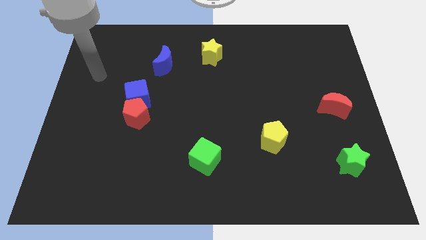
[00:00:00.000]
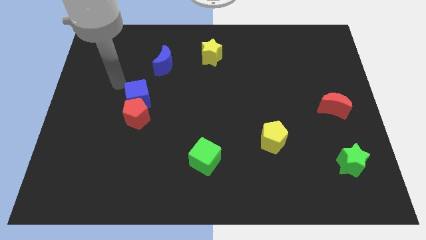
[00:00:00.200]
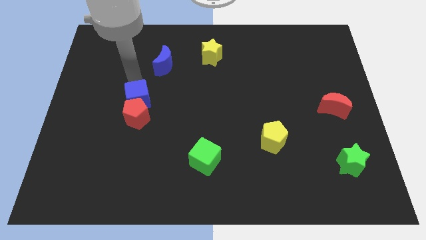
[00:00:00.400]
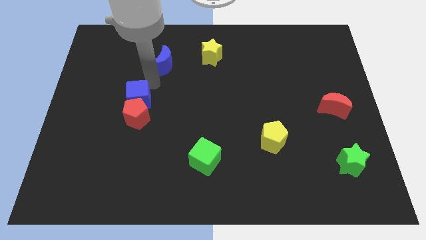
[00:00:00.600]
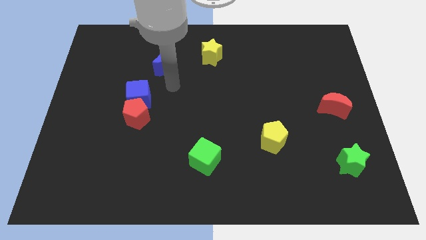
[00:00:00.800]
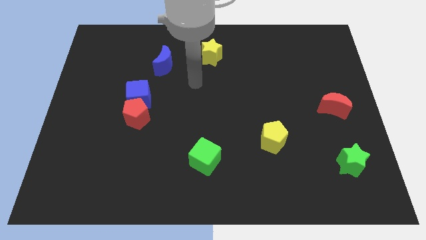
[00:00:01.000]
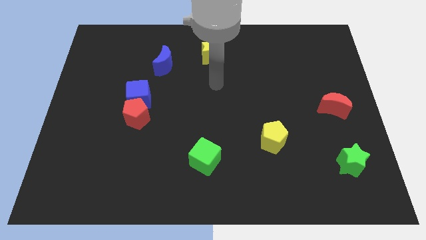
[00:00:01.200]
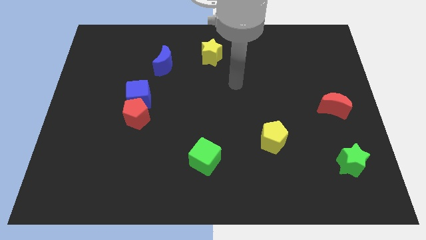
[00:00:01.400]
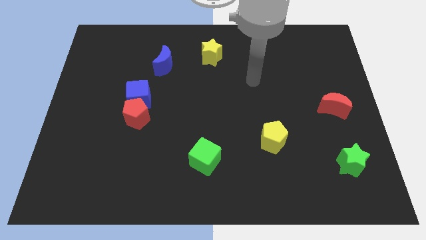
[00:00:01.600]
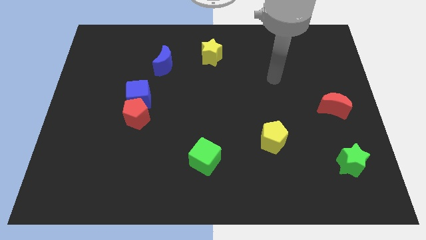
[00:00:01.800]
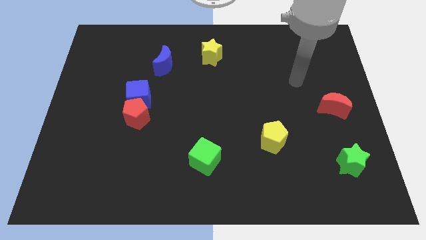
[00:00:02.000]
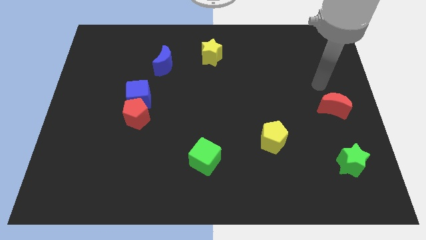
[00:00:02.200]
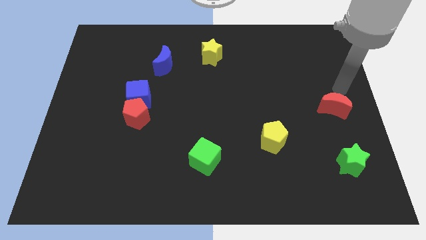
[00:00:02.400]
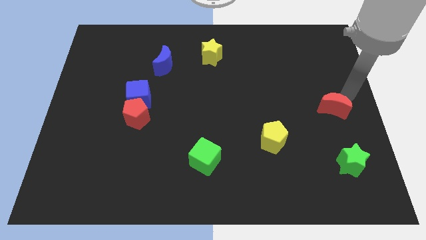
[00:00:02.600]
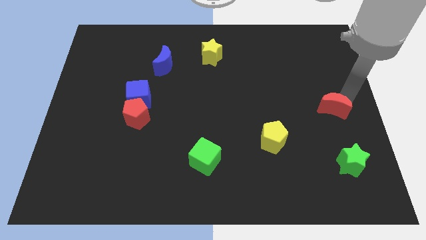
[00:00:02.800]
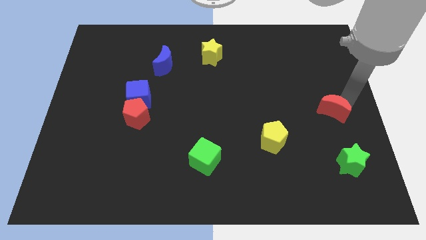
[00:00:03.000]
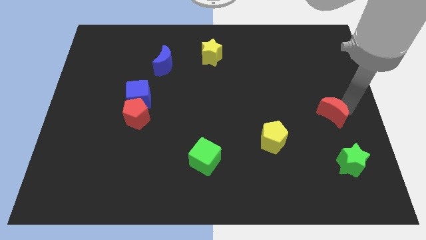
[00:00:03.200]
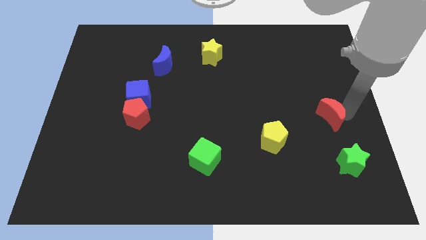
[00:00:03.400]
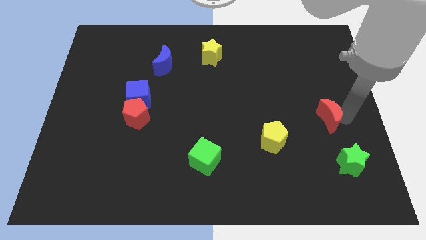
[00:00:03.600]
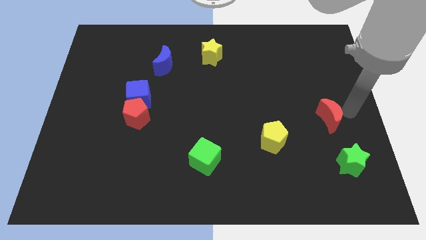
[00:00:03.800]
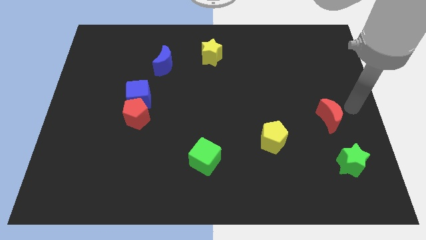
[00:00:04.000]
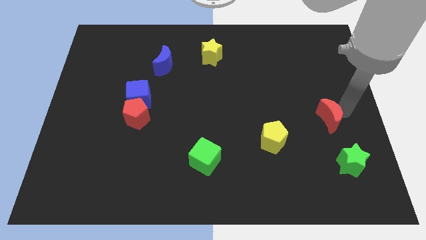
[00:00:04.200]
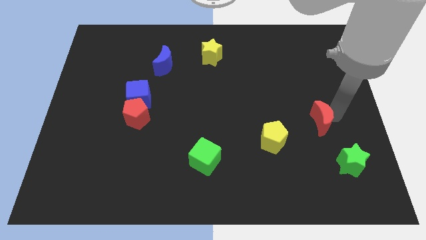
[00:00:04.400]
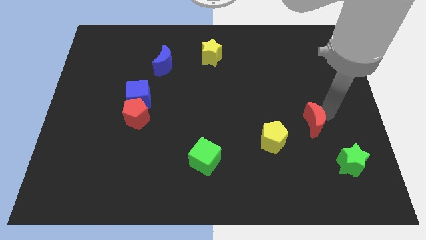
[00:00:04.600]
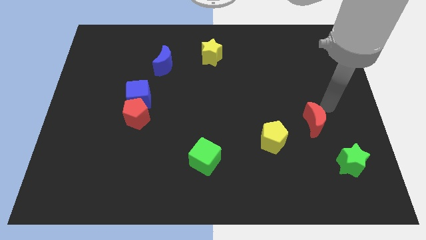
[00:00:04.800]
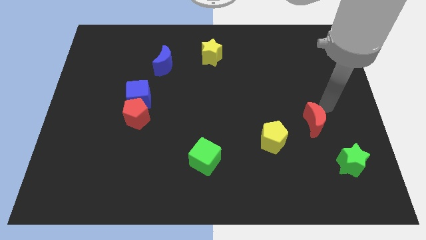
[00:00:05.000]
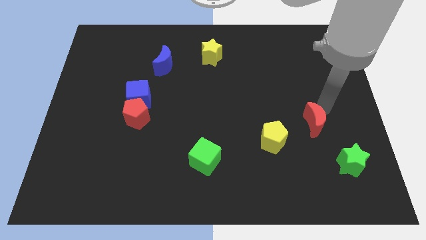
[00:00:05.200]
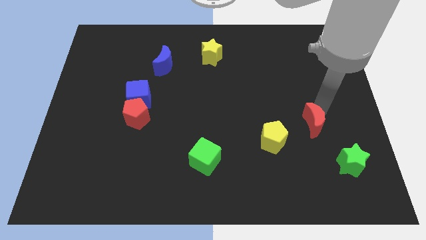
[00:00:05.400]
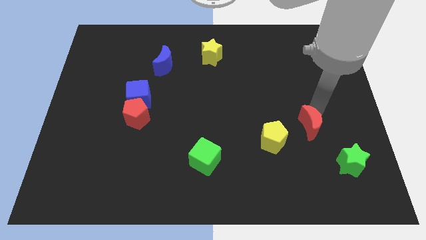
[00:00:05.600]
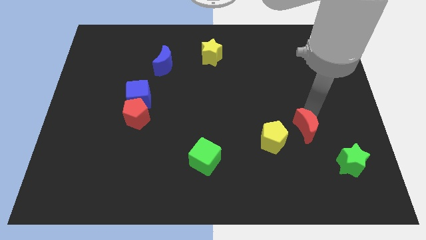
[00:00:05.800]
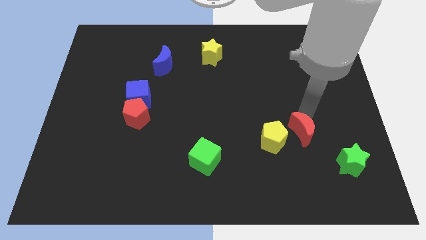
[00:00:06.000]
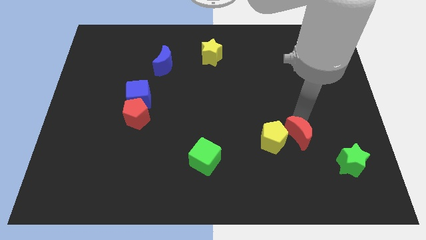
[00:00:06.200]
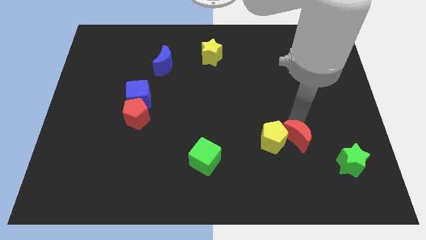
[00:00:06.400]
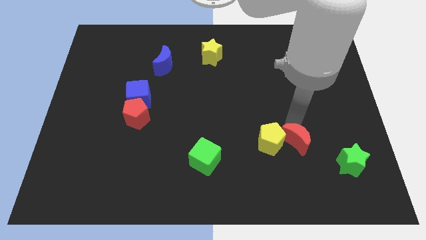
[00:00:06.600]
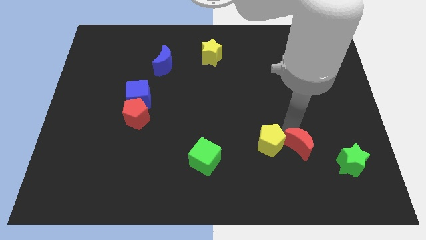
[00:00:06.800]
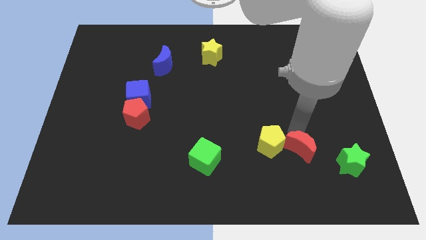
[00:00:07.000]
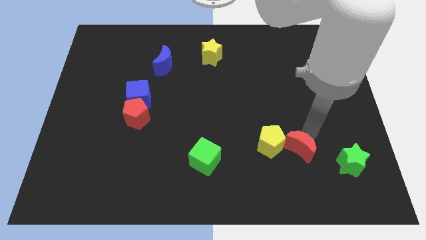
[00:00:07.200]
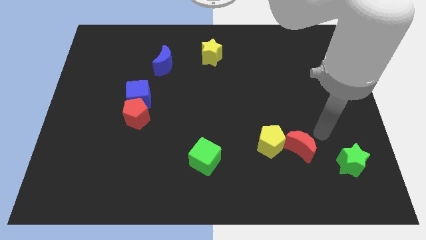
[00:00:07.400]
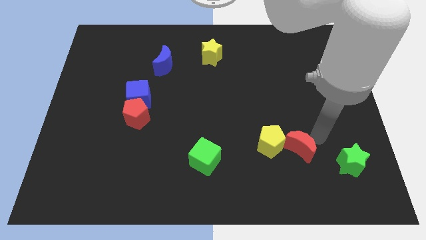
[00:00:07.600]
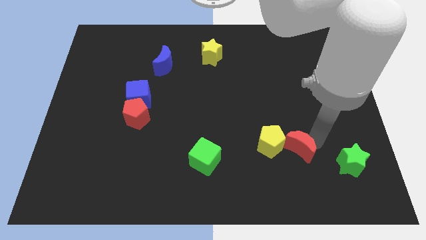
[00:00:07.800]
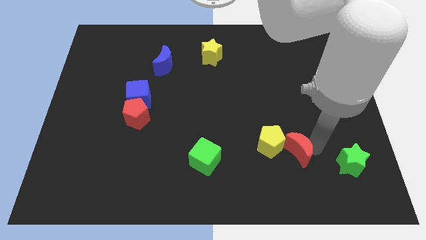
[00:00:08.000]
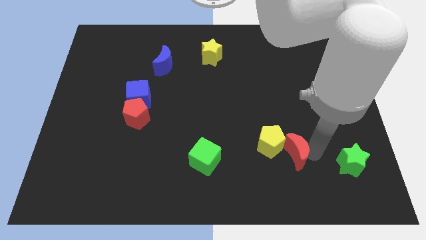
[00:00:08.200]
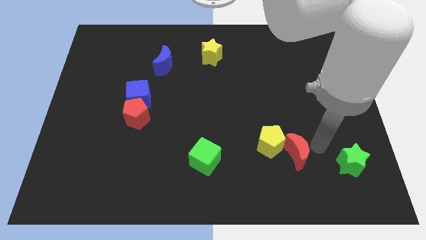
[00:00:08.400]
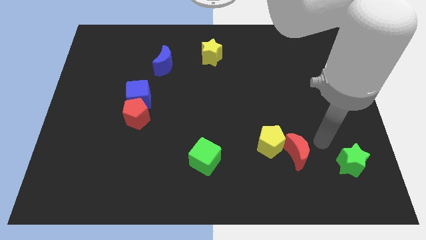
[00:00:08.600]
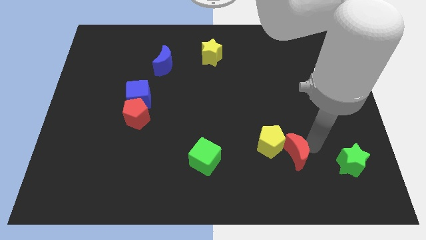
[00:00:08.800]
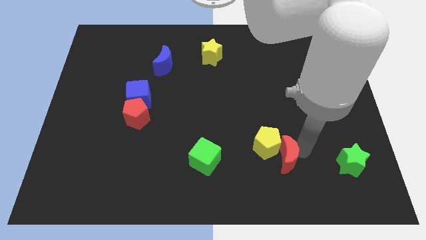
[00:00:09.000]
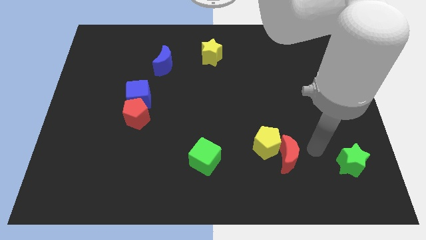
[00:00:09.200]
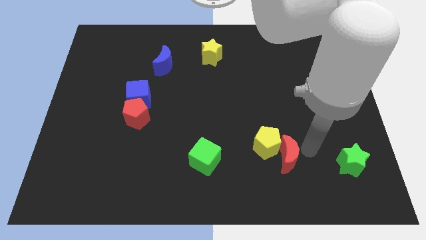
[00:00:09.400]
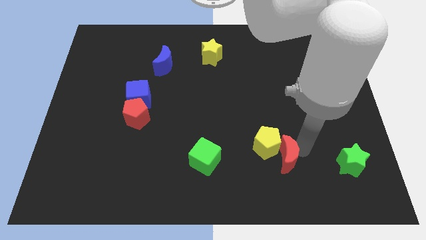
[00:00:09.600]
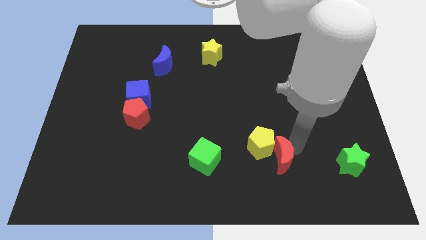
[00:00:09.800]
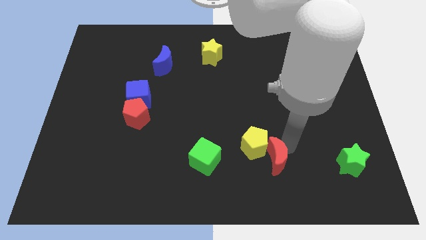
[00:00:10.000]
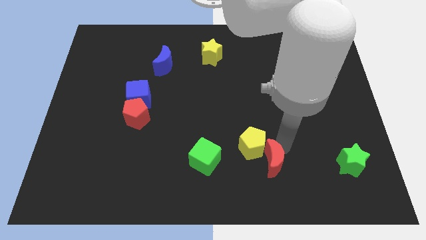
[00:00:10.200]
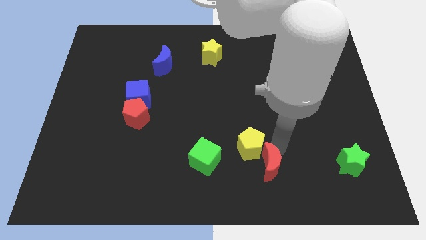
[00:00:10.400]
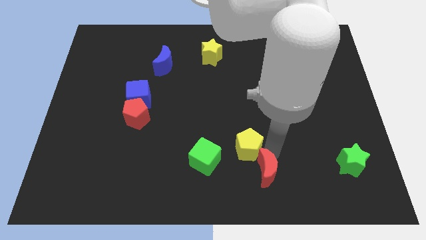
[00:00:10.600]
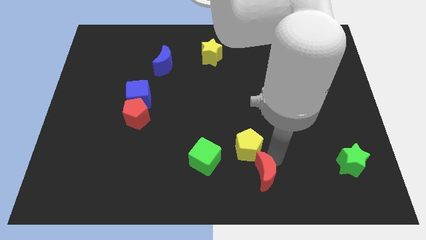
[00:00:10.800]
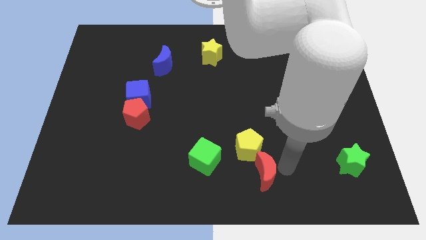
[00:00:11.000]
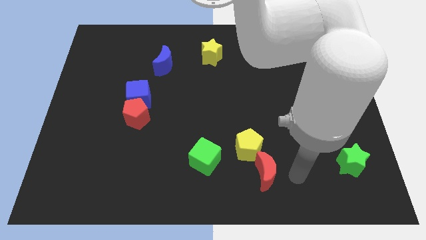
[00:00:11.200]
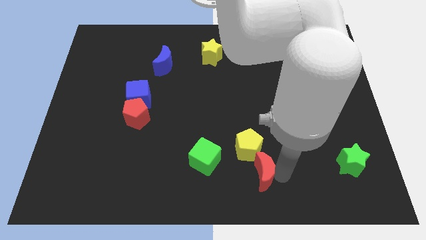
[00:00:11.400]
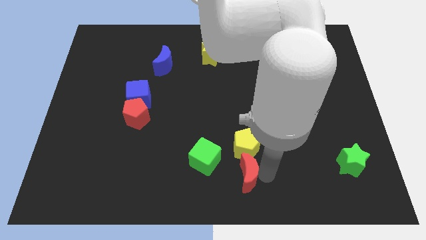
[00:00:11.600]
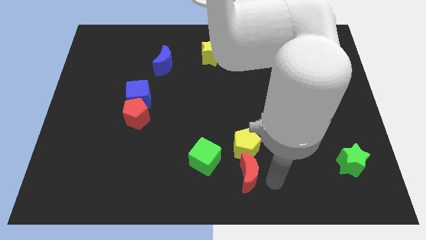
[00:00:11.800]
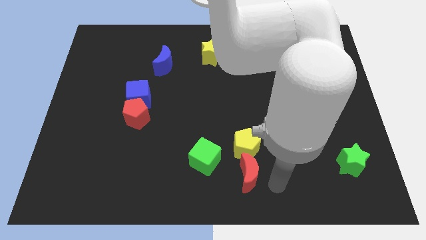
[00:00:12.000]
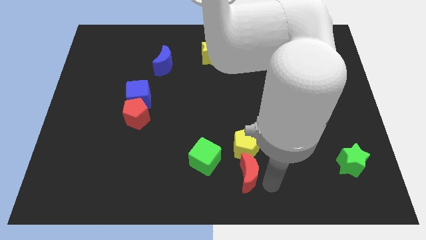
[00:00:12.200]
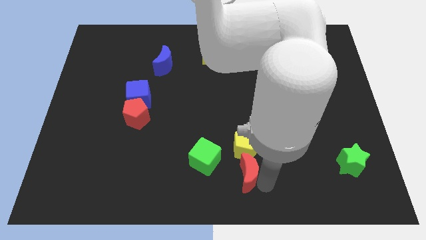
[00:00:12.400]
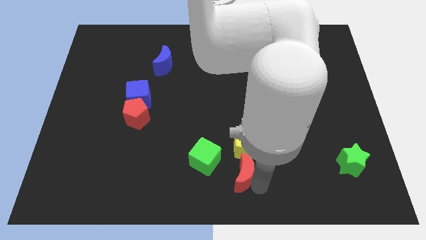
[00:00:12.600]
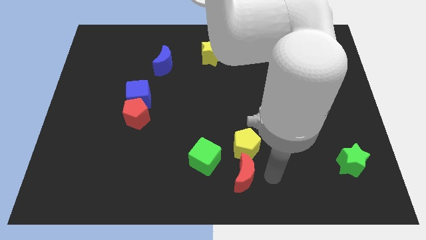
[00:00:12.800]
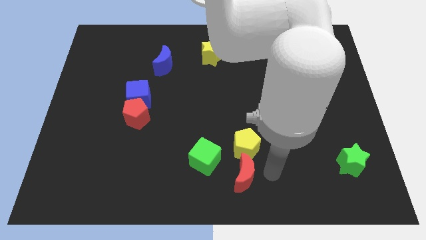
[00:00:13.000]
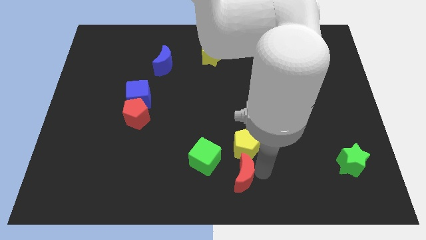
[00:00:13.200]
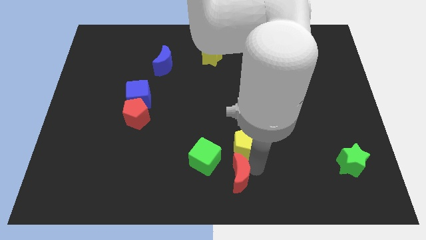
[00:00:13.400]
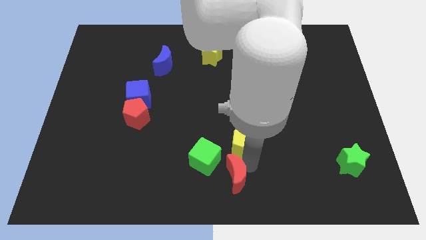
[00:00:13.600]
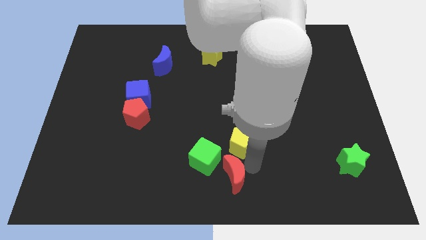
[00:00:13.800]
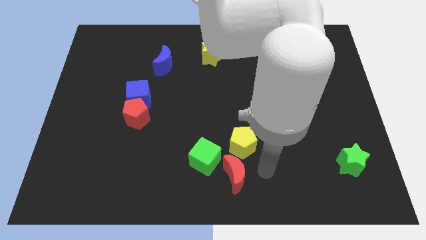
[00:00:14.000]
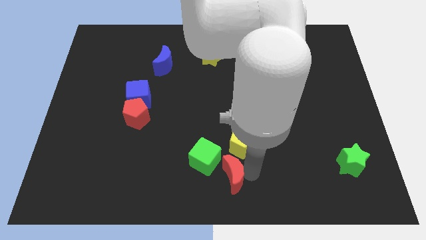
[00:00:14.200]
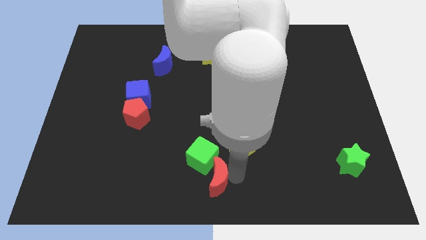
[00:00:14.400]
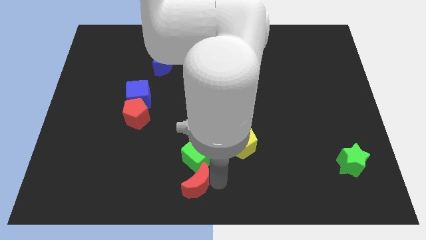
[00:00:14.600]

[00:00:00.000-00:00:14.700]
push the red moon to the bottom left side of the green cube

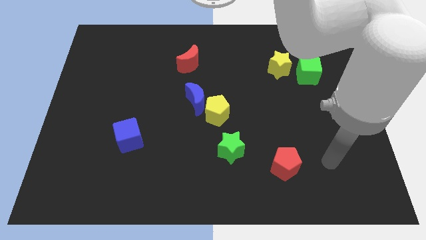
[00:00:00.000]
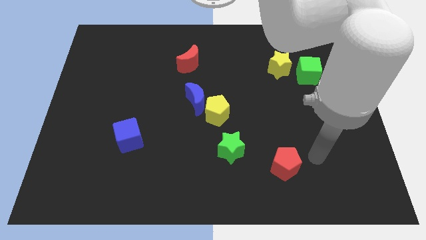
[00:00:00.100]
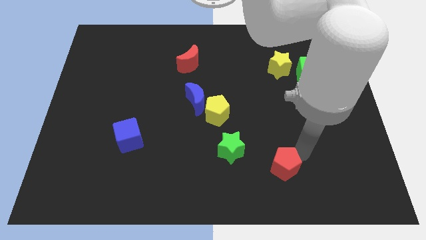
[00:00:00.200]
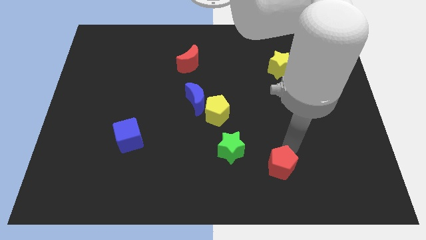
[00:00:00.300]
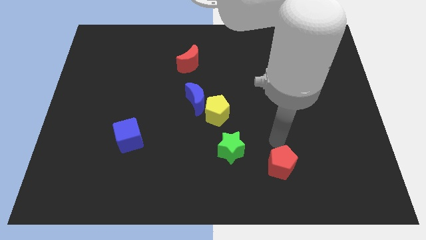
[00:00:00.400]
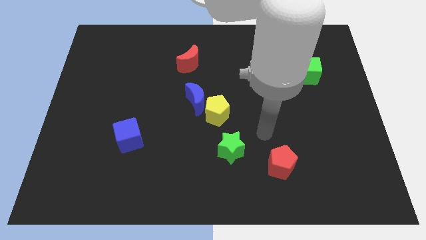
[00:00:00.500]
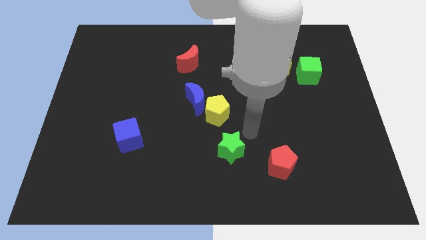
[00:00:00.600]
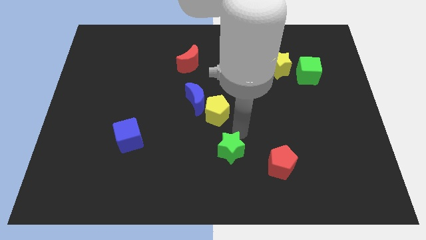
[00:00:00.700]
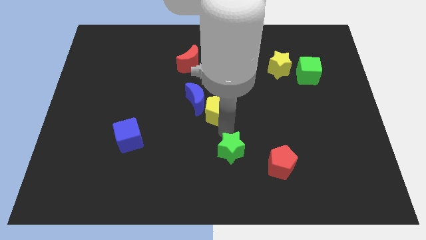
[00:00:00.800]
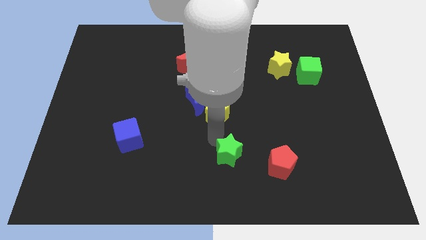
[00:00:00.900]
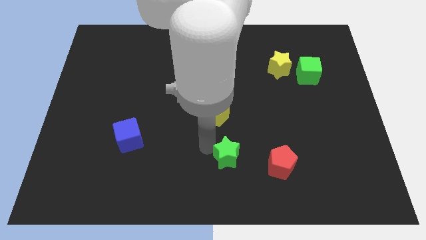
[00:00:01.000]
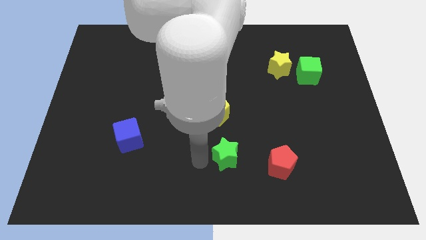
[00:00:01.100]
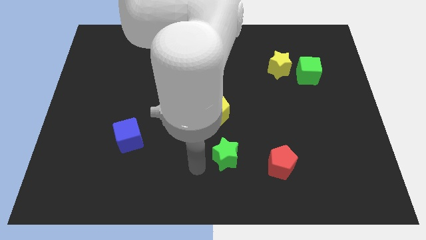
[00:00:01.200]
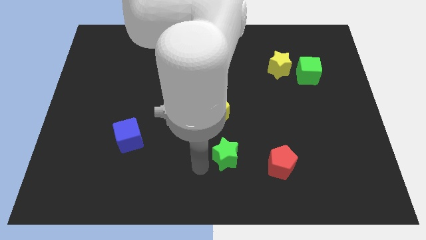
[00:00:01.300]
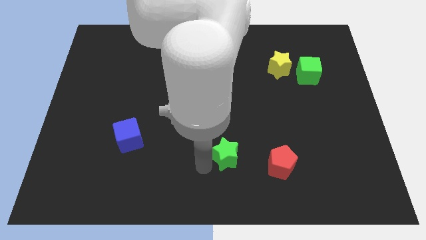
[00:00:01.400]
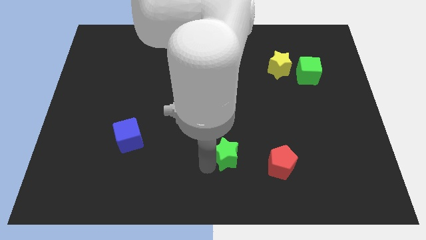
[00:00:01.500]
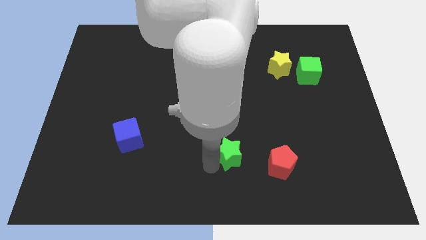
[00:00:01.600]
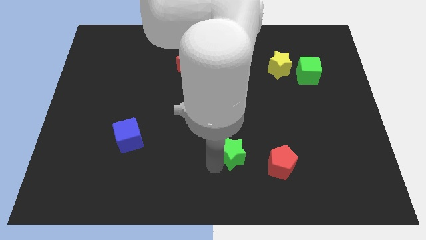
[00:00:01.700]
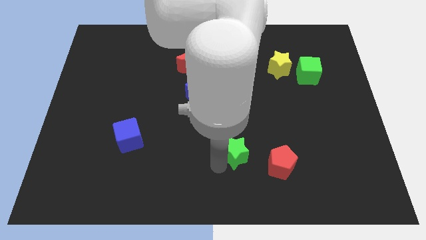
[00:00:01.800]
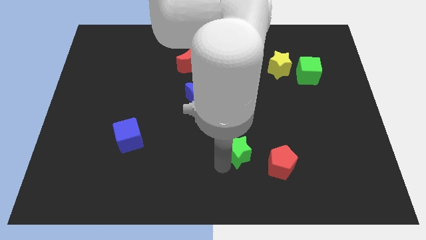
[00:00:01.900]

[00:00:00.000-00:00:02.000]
slide the green star to the top left of the red pentagon
